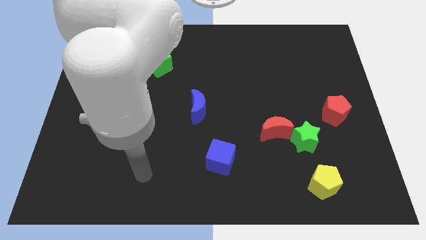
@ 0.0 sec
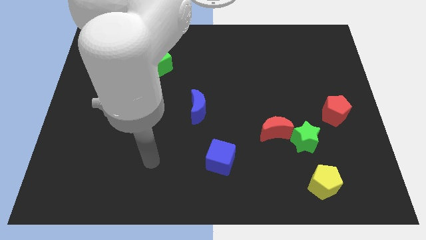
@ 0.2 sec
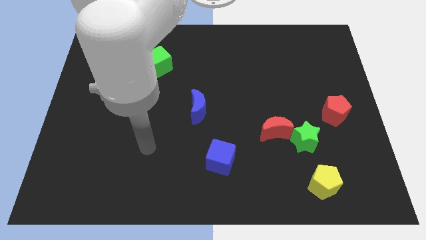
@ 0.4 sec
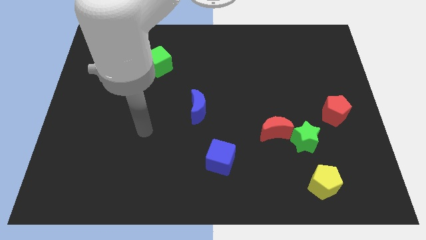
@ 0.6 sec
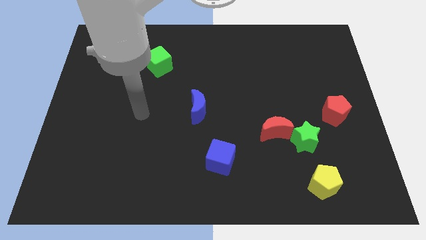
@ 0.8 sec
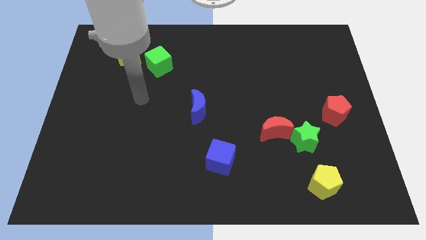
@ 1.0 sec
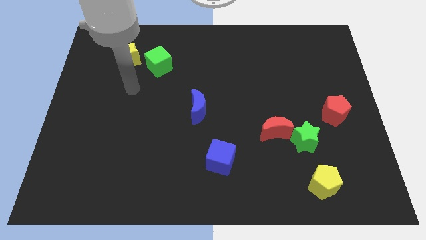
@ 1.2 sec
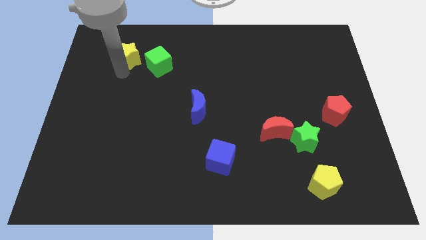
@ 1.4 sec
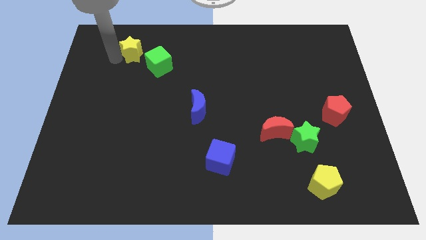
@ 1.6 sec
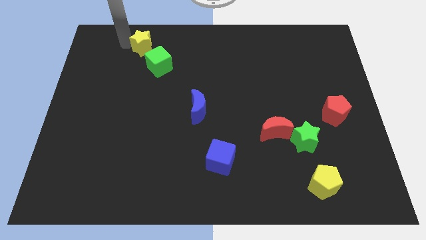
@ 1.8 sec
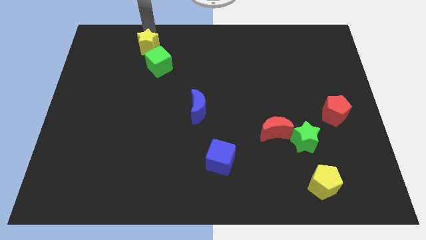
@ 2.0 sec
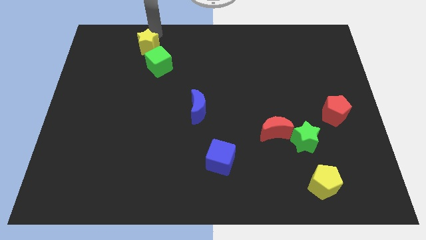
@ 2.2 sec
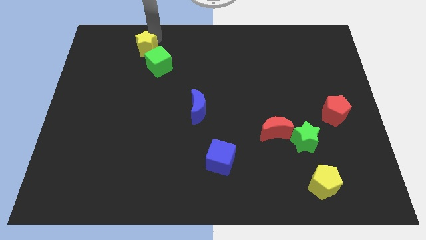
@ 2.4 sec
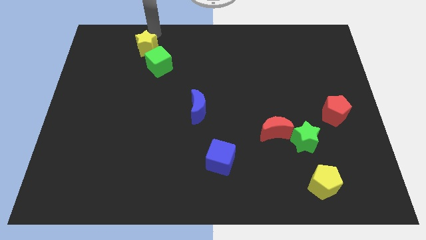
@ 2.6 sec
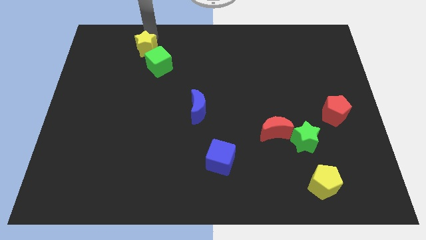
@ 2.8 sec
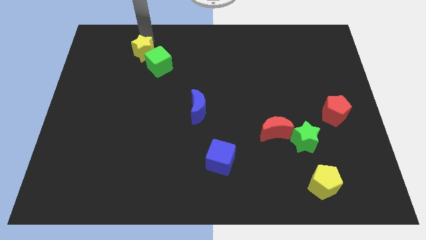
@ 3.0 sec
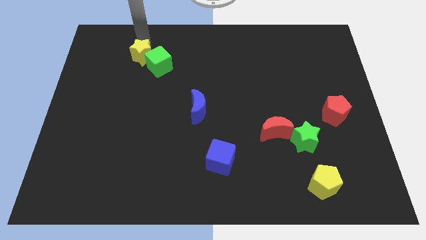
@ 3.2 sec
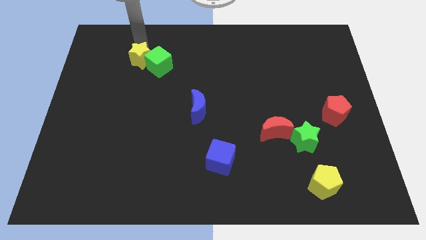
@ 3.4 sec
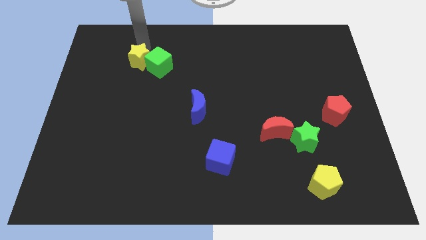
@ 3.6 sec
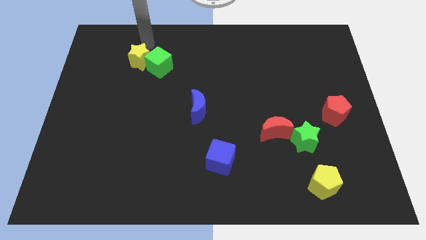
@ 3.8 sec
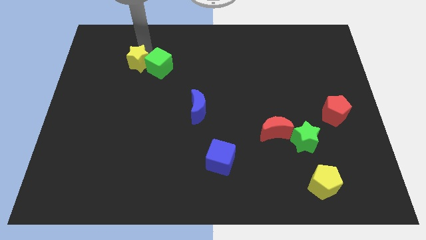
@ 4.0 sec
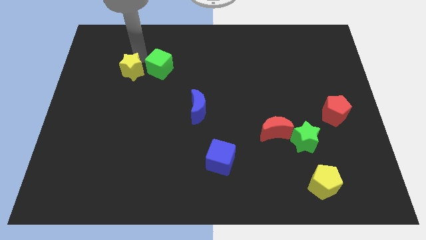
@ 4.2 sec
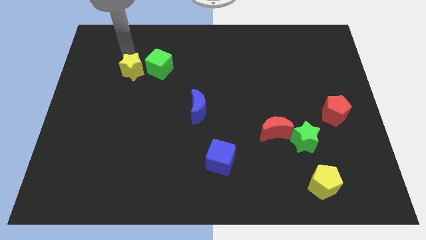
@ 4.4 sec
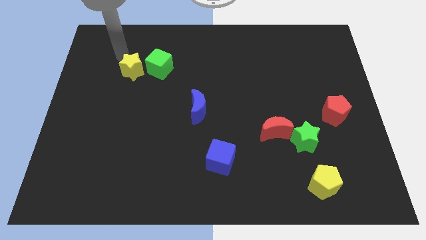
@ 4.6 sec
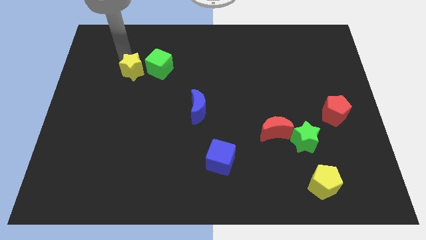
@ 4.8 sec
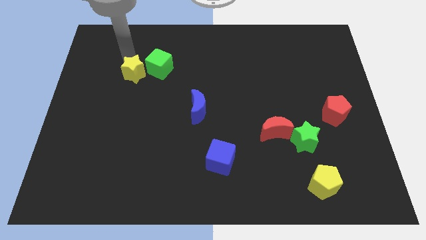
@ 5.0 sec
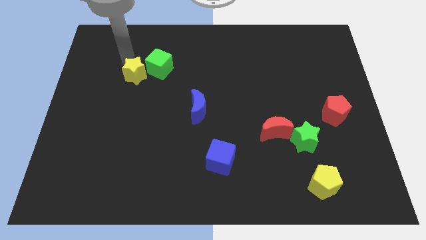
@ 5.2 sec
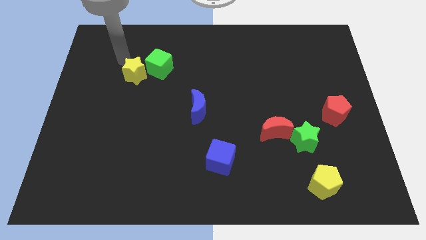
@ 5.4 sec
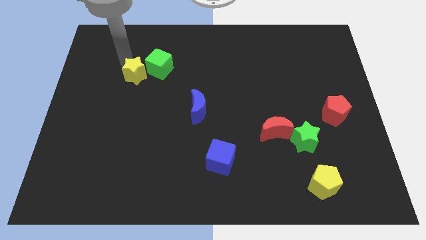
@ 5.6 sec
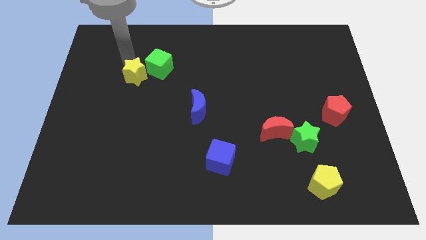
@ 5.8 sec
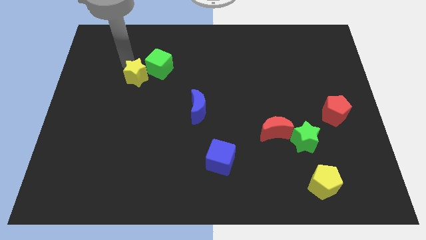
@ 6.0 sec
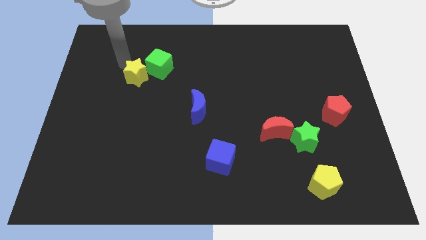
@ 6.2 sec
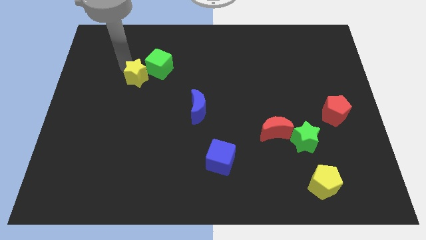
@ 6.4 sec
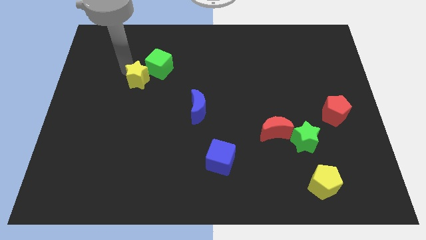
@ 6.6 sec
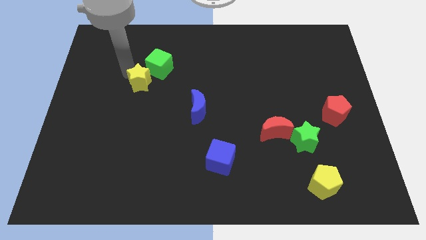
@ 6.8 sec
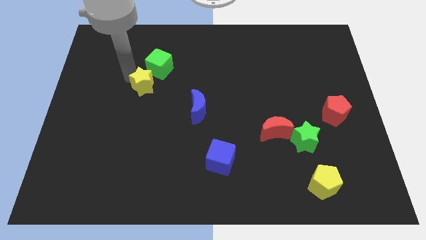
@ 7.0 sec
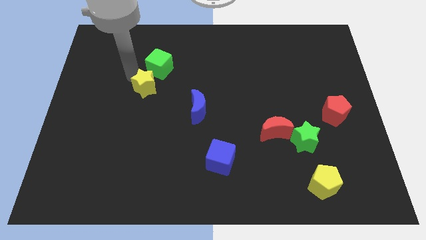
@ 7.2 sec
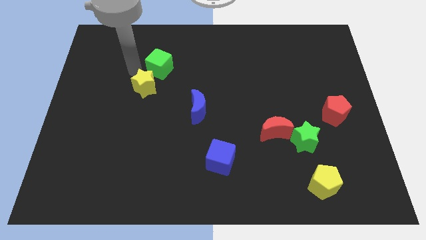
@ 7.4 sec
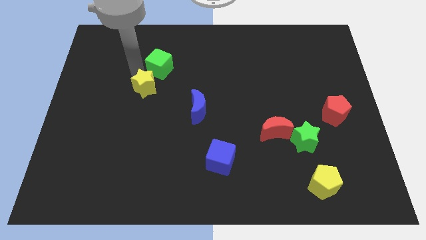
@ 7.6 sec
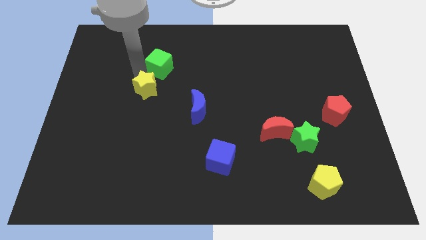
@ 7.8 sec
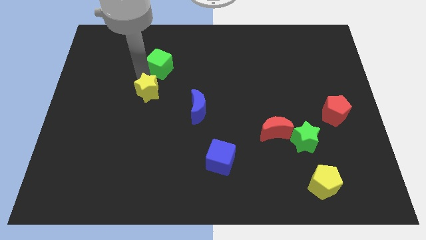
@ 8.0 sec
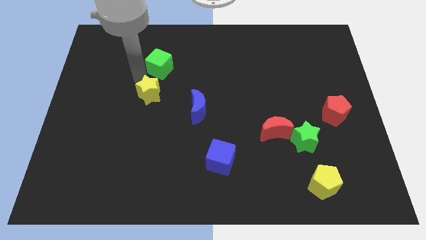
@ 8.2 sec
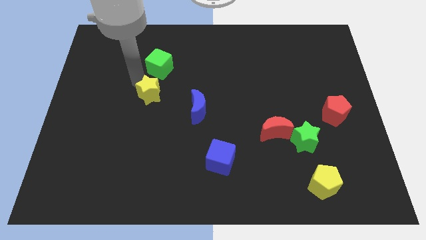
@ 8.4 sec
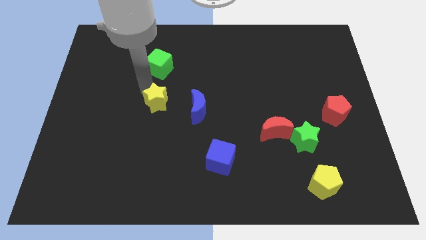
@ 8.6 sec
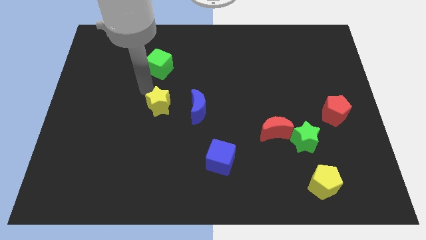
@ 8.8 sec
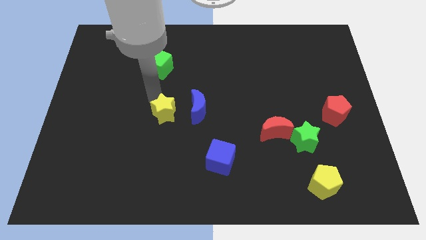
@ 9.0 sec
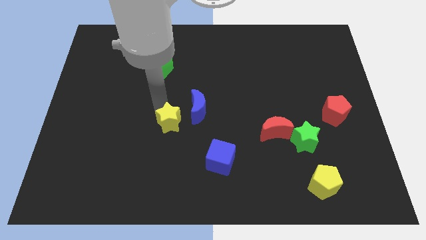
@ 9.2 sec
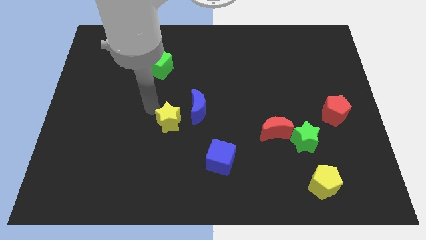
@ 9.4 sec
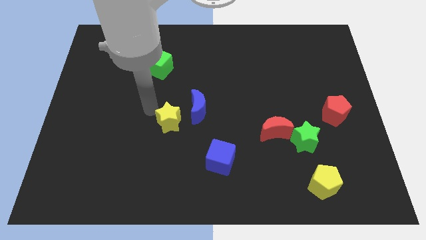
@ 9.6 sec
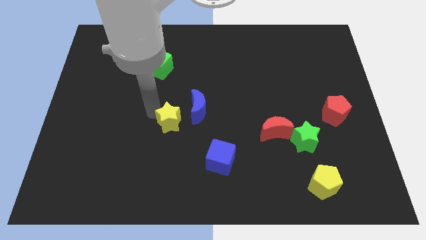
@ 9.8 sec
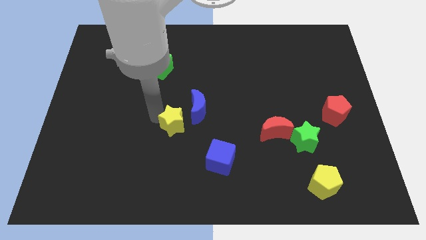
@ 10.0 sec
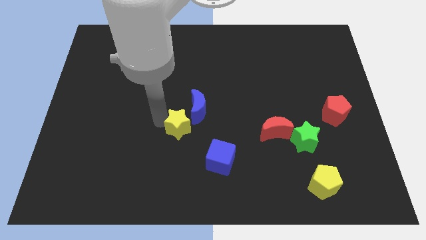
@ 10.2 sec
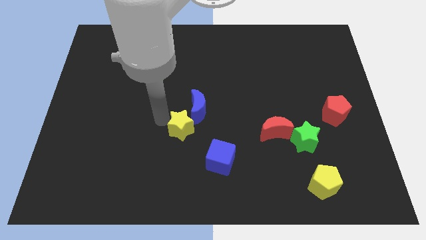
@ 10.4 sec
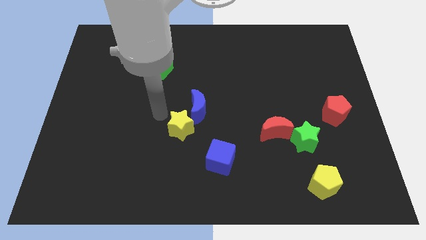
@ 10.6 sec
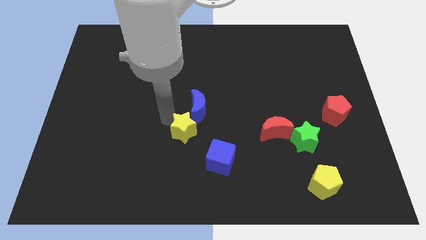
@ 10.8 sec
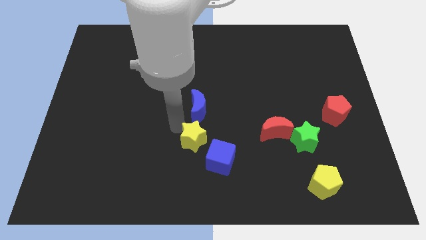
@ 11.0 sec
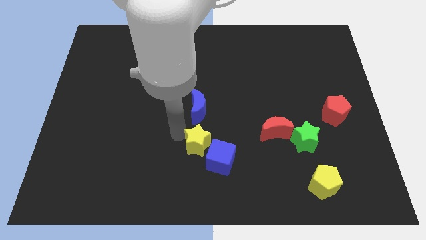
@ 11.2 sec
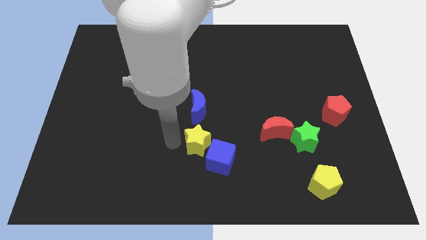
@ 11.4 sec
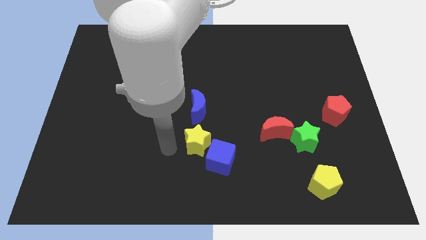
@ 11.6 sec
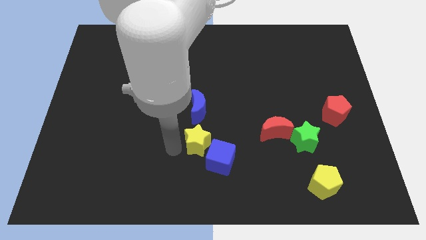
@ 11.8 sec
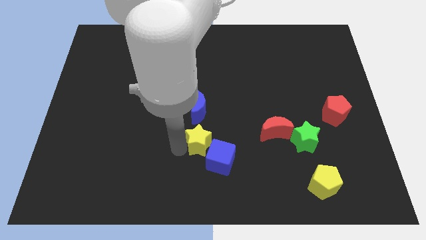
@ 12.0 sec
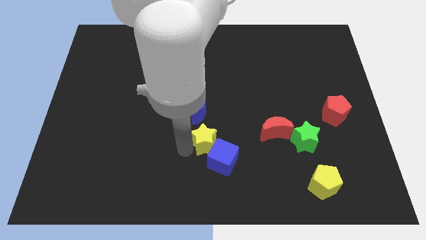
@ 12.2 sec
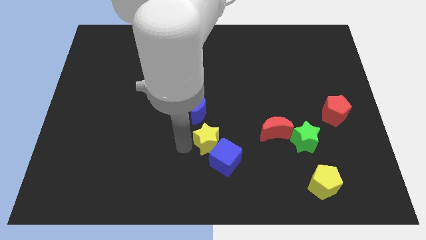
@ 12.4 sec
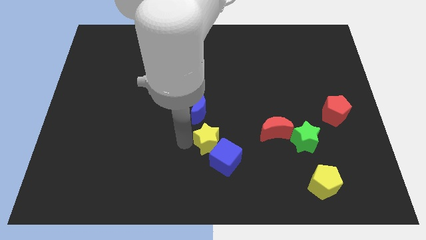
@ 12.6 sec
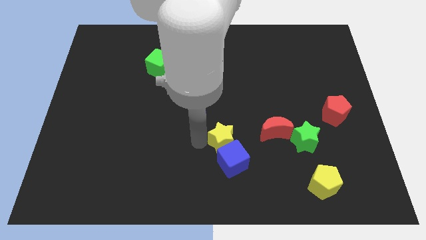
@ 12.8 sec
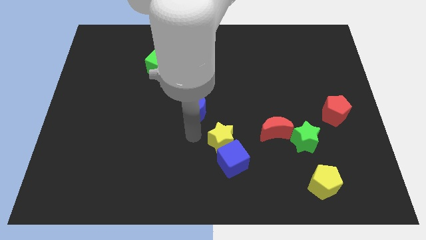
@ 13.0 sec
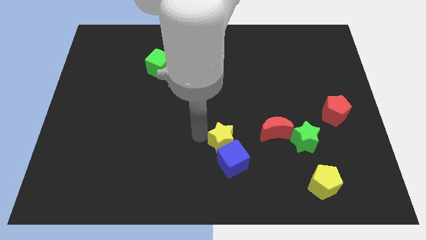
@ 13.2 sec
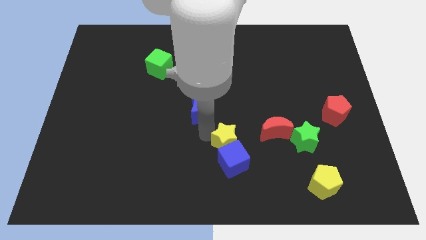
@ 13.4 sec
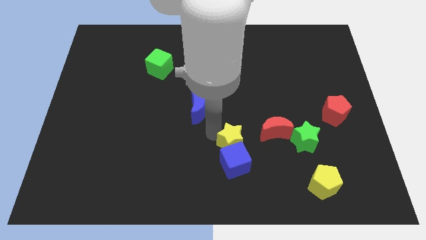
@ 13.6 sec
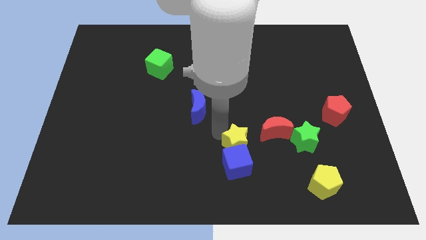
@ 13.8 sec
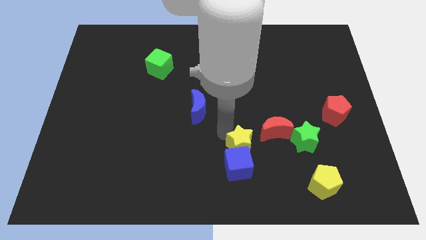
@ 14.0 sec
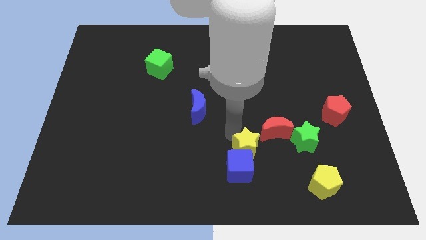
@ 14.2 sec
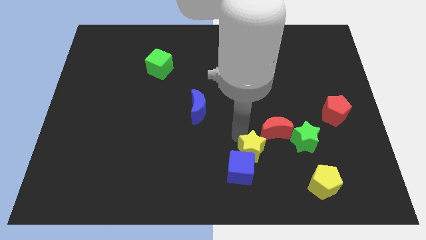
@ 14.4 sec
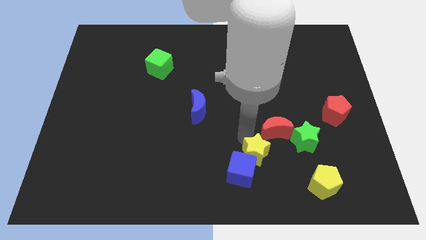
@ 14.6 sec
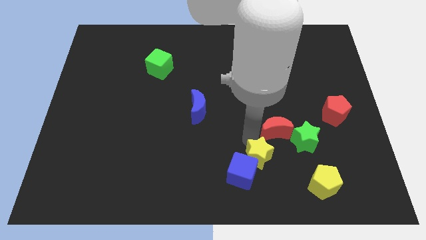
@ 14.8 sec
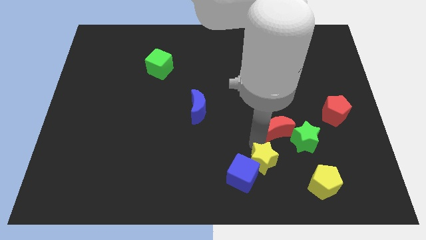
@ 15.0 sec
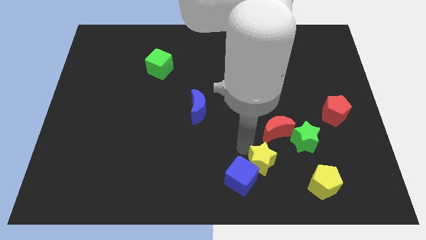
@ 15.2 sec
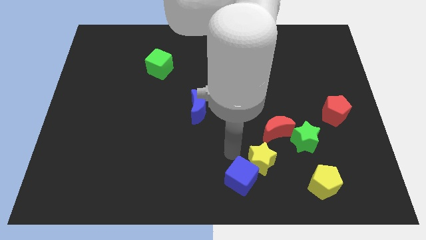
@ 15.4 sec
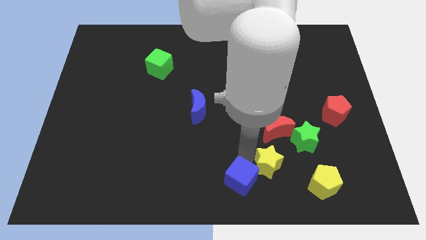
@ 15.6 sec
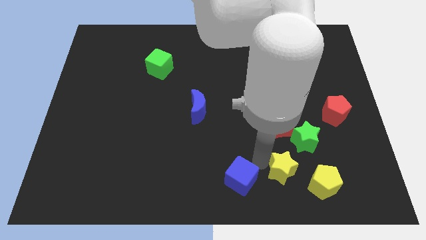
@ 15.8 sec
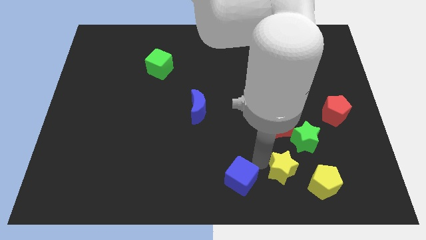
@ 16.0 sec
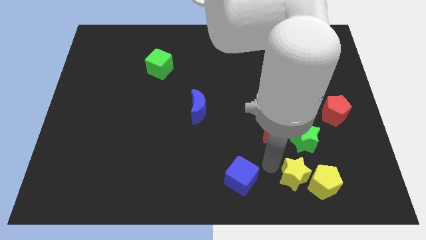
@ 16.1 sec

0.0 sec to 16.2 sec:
put the yellow star towards the yellow pentagon
